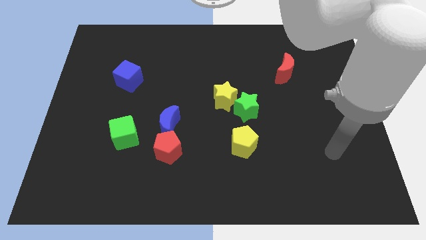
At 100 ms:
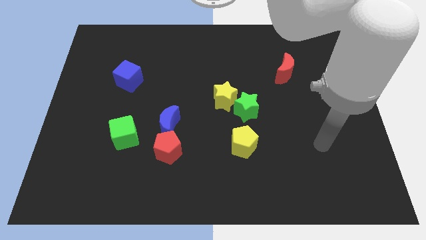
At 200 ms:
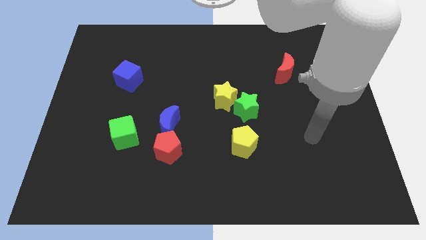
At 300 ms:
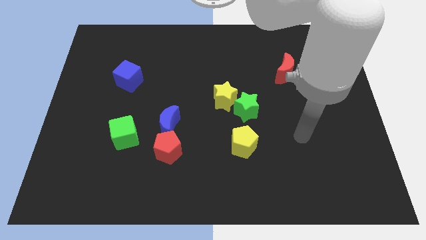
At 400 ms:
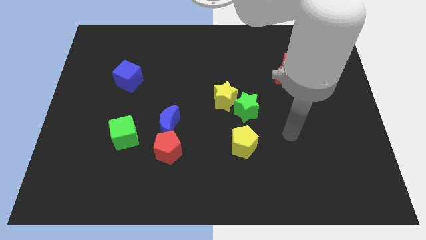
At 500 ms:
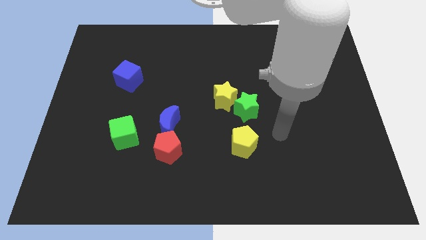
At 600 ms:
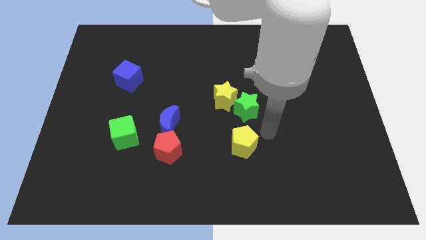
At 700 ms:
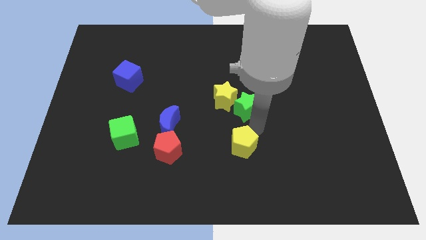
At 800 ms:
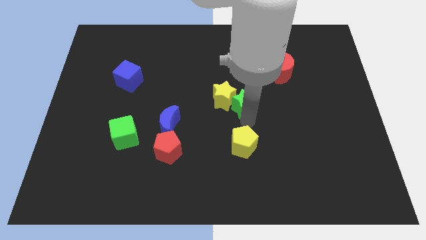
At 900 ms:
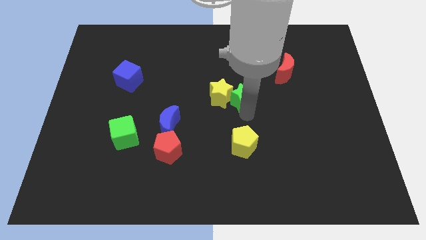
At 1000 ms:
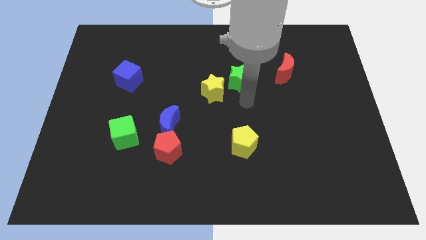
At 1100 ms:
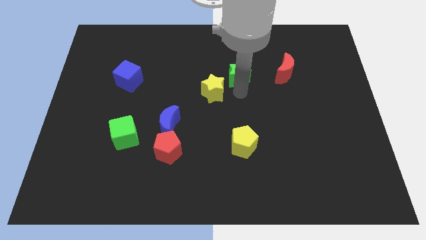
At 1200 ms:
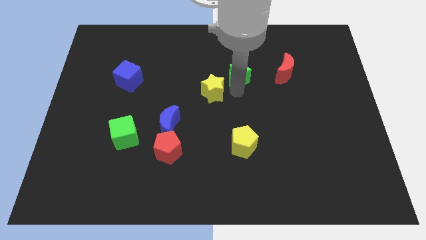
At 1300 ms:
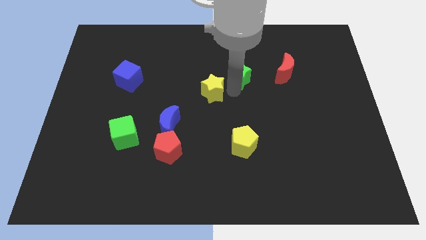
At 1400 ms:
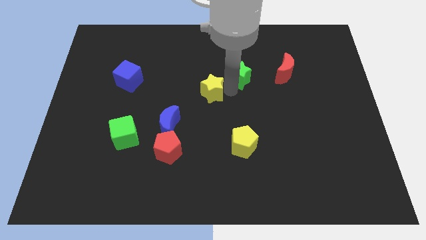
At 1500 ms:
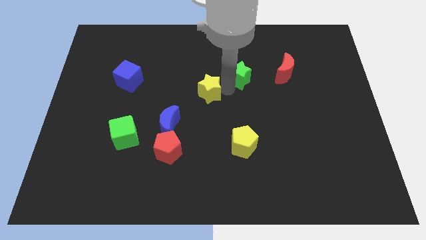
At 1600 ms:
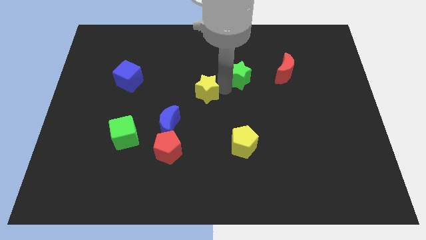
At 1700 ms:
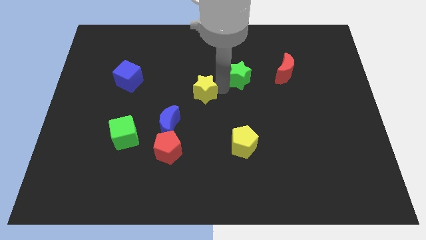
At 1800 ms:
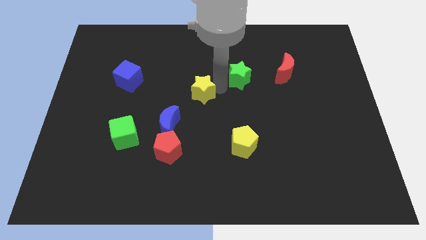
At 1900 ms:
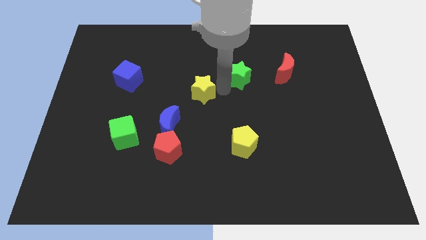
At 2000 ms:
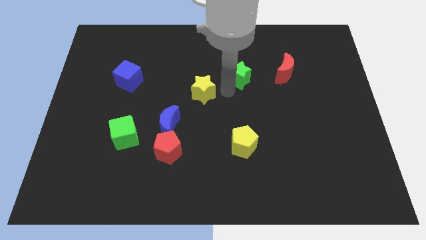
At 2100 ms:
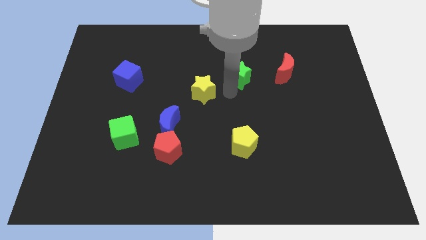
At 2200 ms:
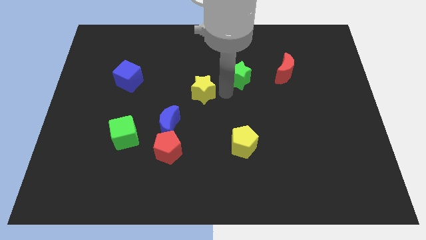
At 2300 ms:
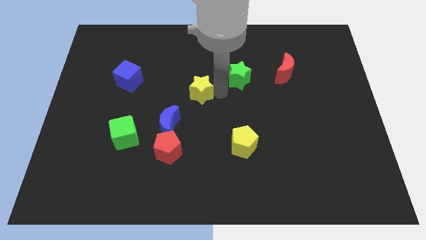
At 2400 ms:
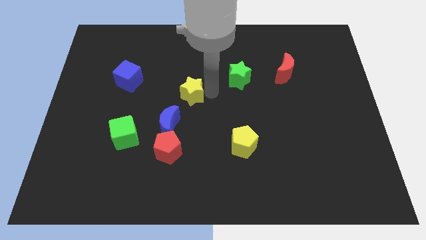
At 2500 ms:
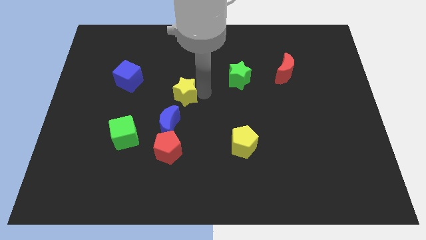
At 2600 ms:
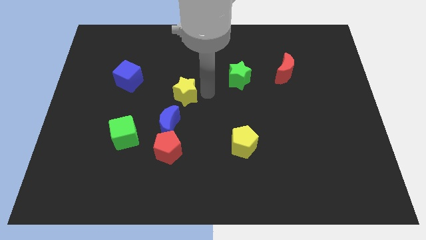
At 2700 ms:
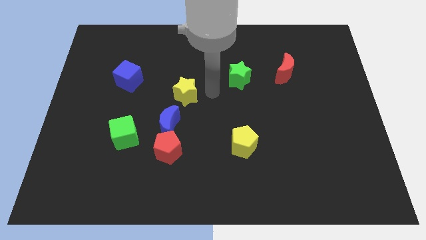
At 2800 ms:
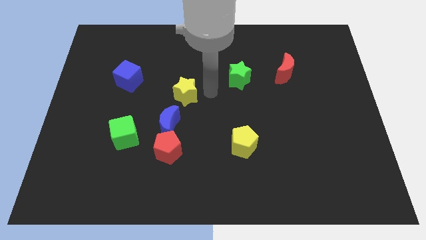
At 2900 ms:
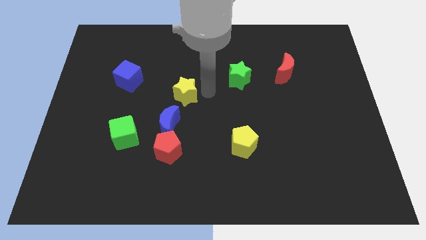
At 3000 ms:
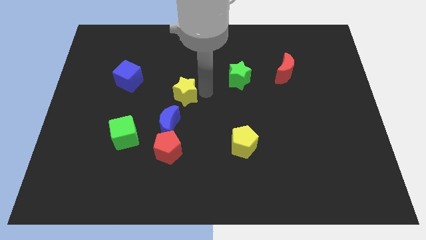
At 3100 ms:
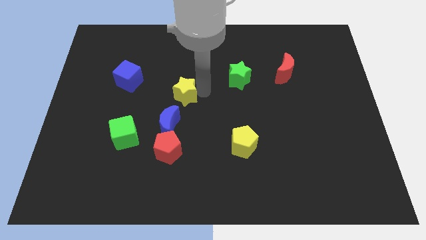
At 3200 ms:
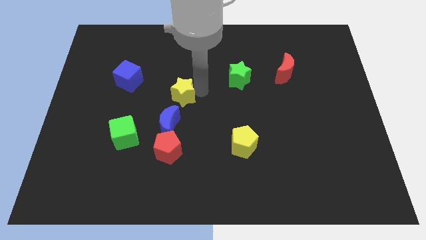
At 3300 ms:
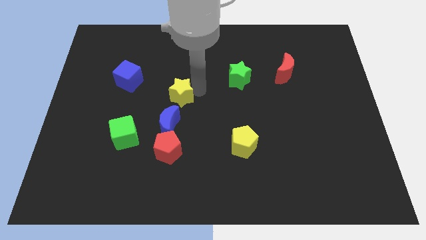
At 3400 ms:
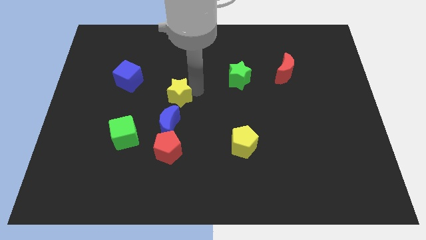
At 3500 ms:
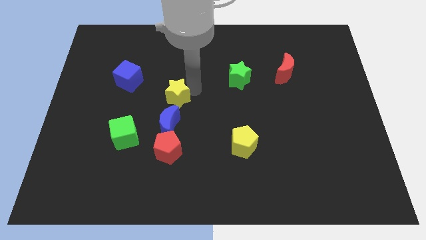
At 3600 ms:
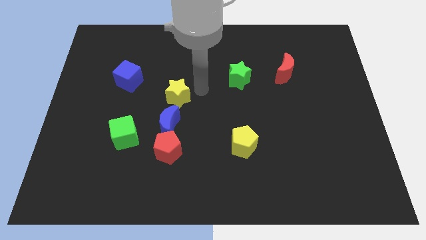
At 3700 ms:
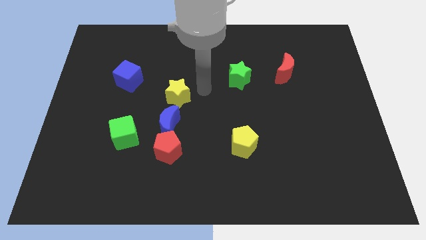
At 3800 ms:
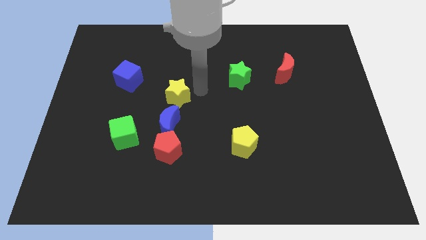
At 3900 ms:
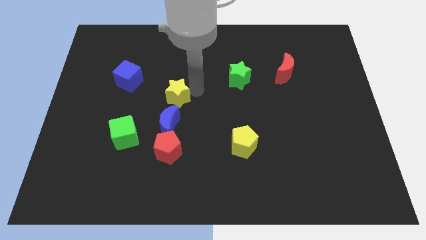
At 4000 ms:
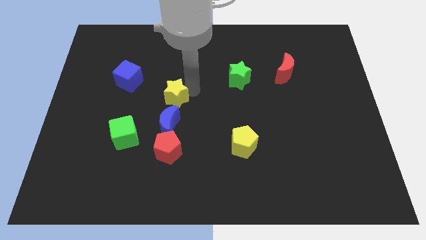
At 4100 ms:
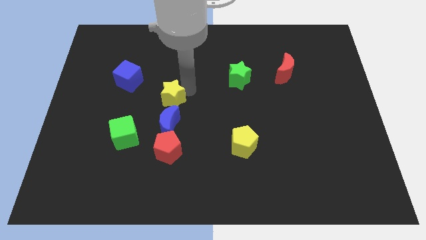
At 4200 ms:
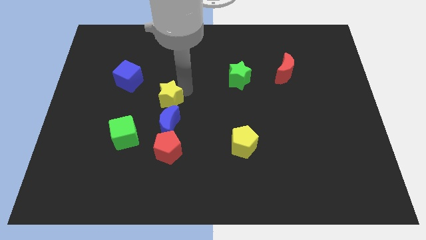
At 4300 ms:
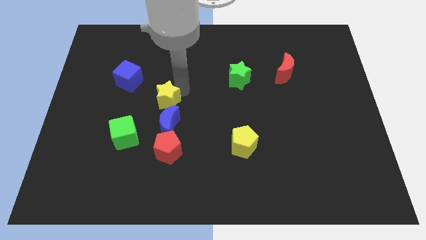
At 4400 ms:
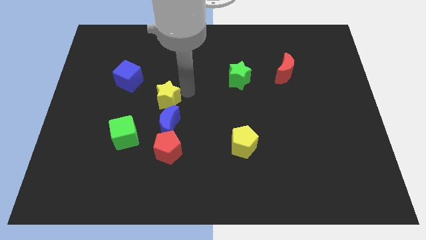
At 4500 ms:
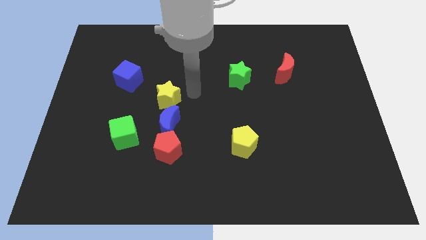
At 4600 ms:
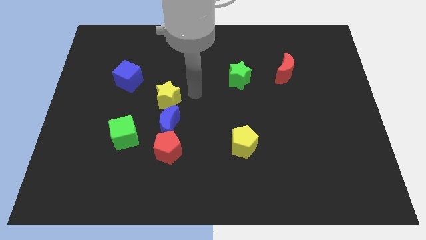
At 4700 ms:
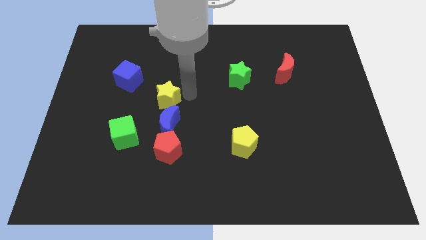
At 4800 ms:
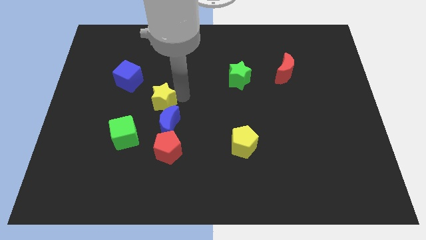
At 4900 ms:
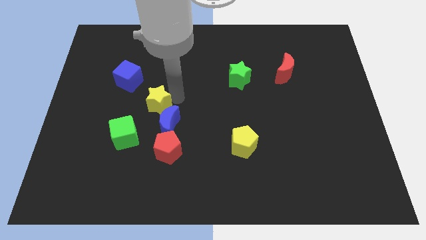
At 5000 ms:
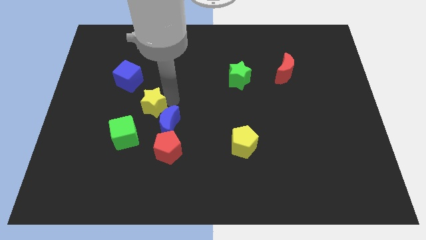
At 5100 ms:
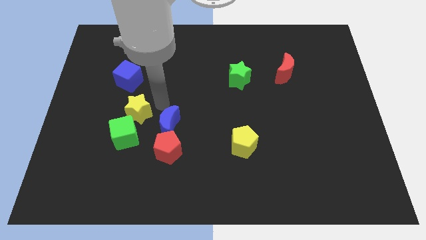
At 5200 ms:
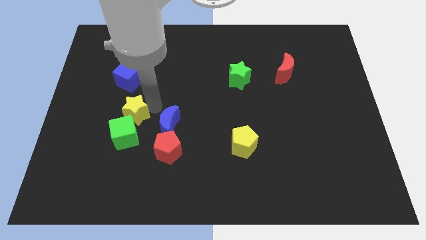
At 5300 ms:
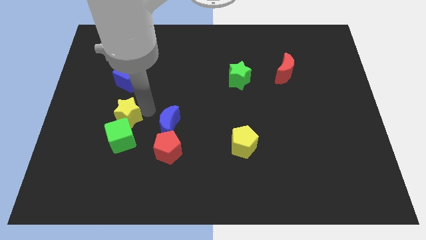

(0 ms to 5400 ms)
put the yellow star to the top left side of the green cube

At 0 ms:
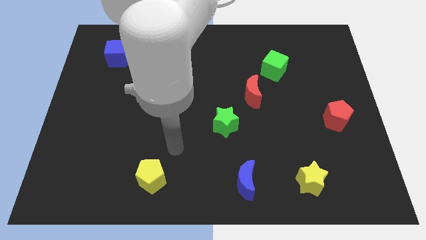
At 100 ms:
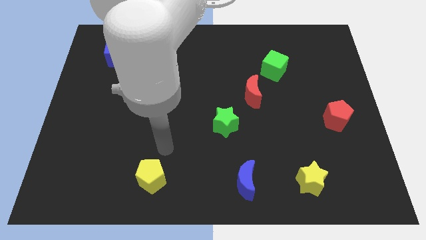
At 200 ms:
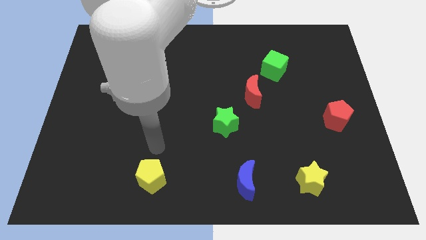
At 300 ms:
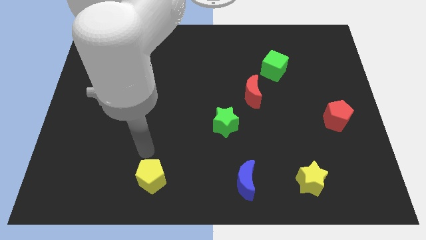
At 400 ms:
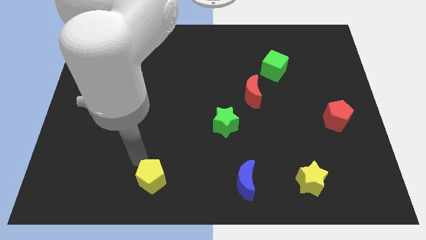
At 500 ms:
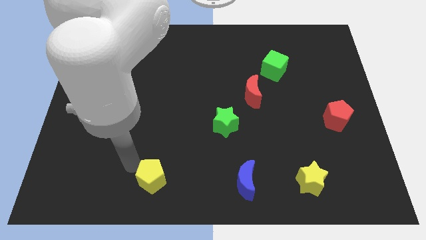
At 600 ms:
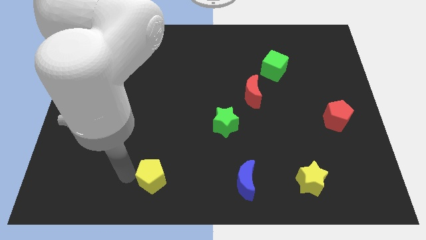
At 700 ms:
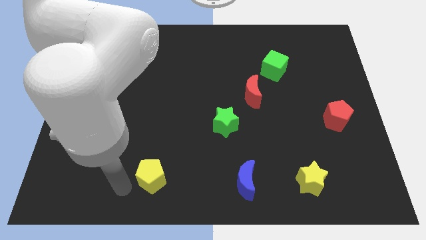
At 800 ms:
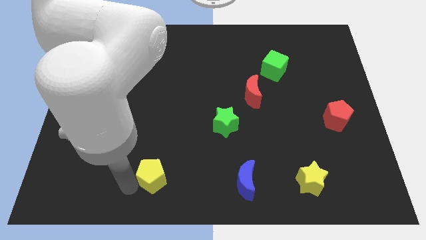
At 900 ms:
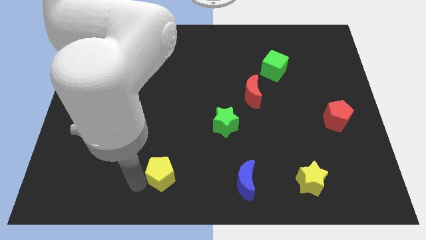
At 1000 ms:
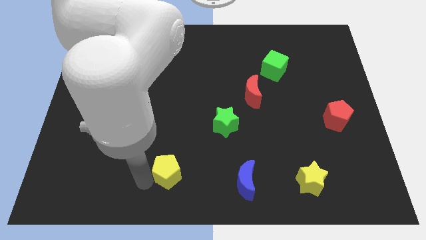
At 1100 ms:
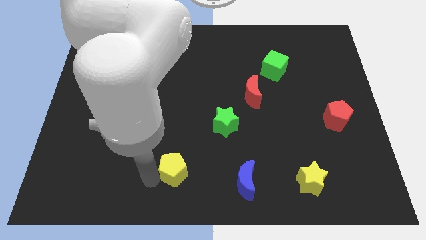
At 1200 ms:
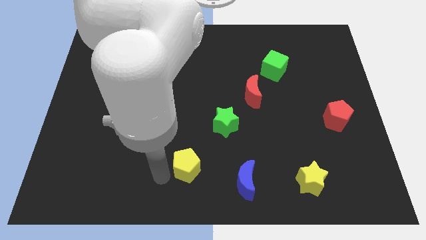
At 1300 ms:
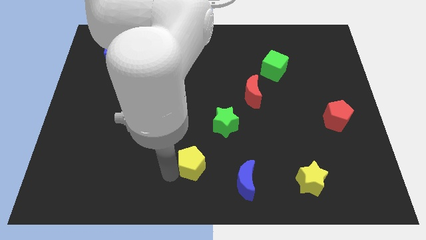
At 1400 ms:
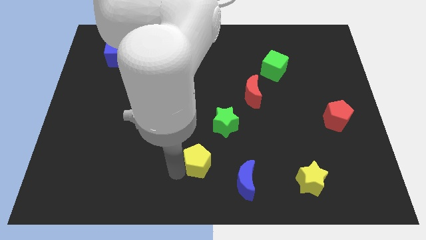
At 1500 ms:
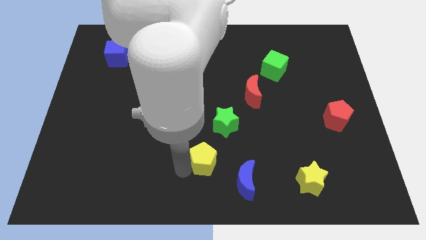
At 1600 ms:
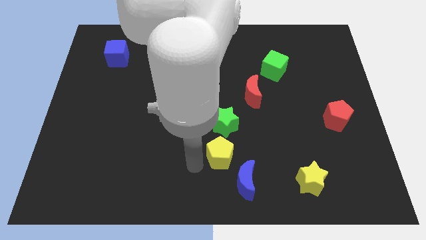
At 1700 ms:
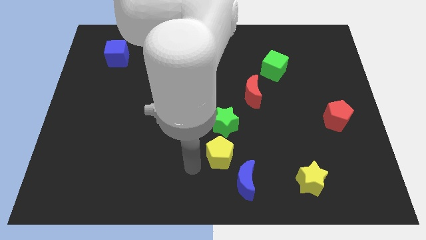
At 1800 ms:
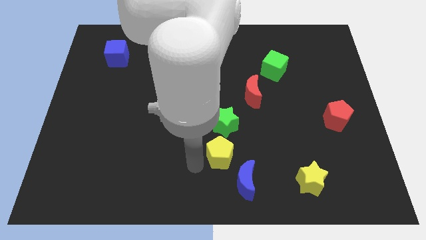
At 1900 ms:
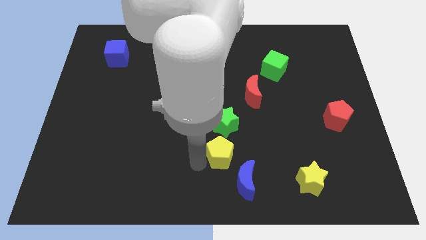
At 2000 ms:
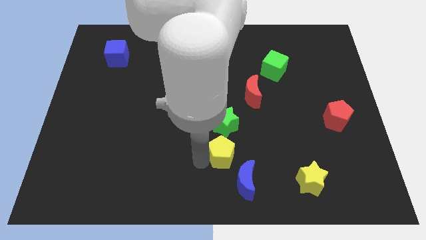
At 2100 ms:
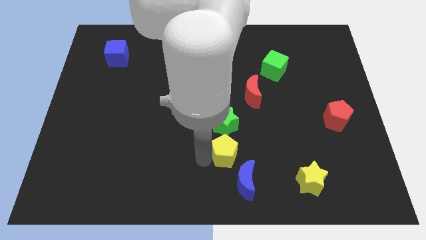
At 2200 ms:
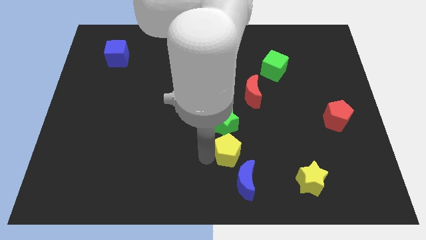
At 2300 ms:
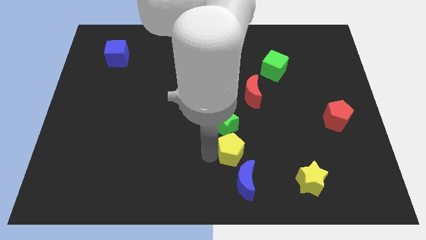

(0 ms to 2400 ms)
slide the yellow pentagon diagonally down and to the right of the green star
